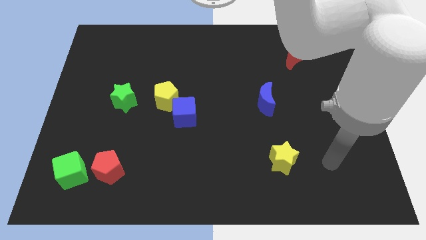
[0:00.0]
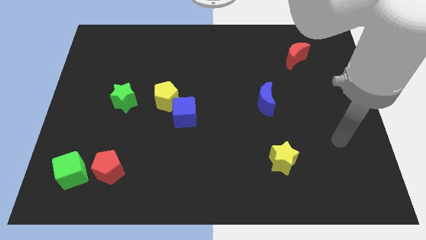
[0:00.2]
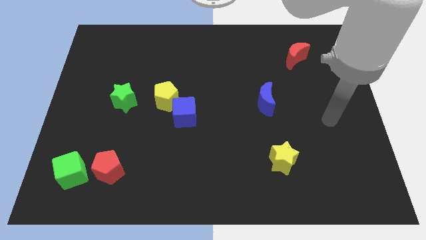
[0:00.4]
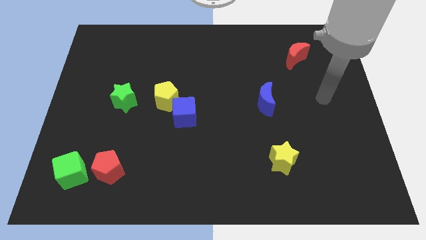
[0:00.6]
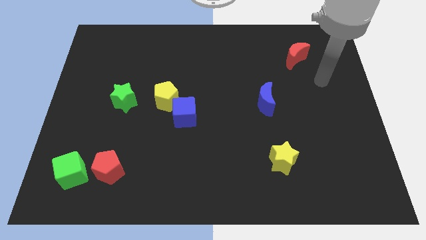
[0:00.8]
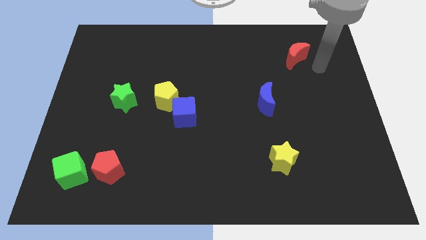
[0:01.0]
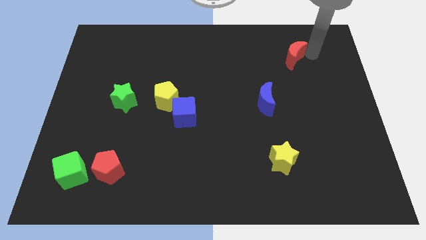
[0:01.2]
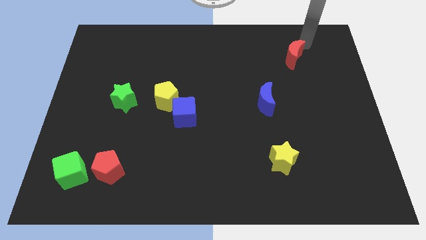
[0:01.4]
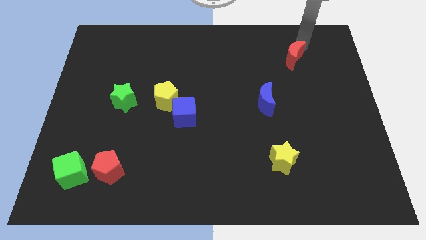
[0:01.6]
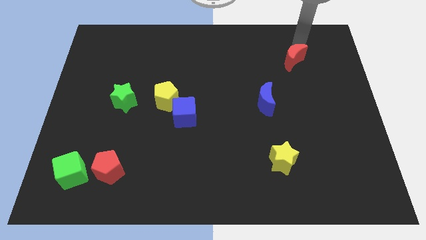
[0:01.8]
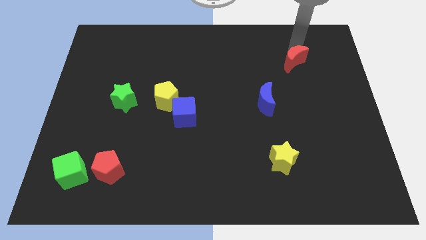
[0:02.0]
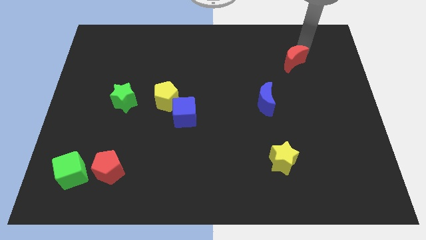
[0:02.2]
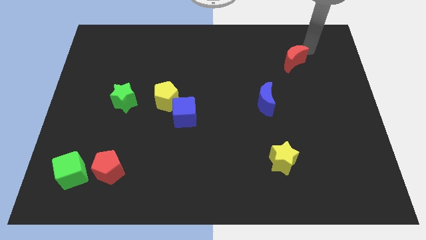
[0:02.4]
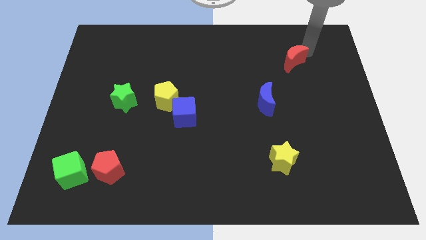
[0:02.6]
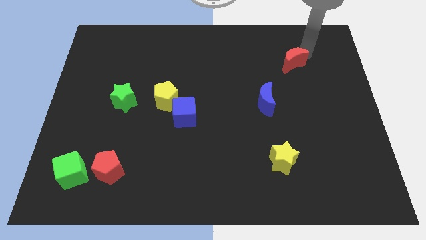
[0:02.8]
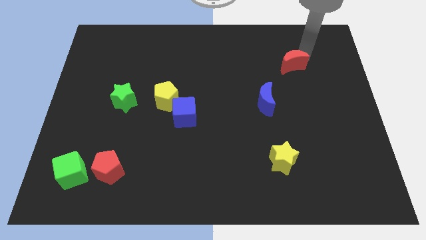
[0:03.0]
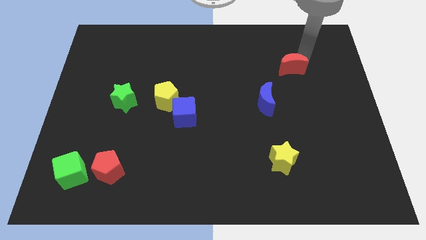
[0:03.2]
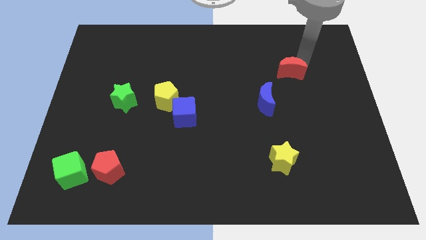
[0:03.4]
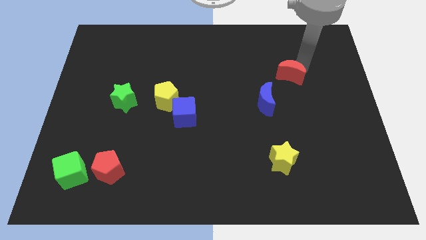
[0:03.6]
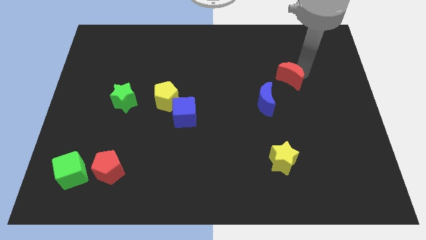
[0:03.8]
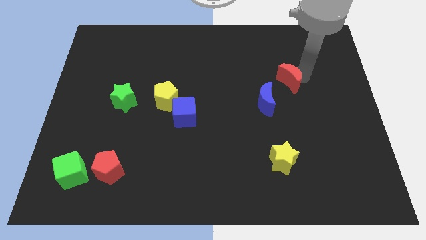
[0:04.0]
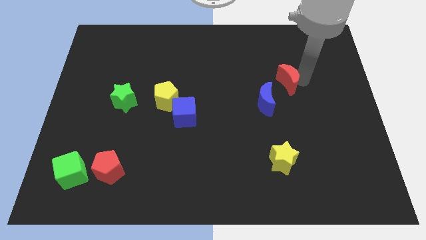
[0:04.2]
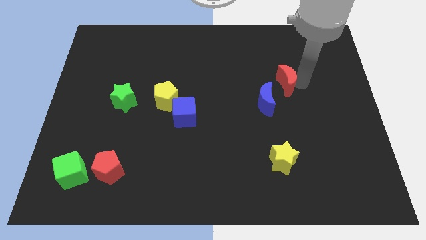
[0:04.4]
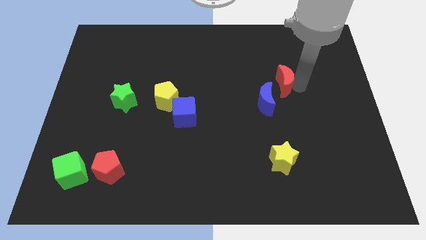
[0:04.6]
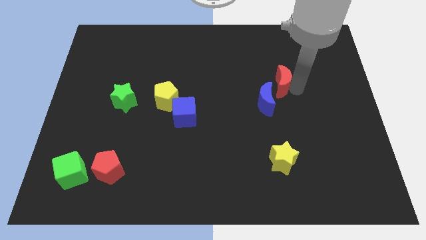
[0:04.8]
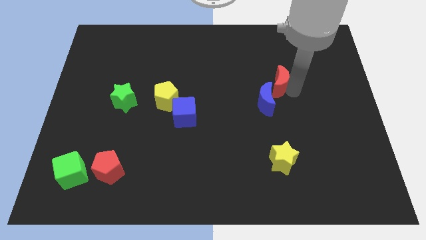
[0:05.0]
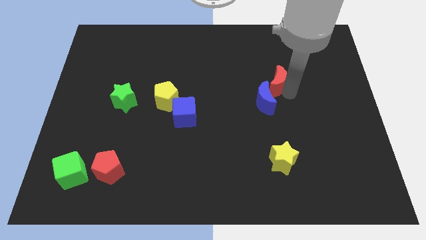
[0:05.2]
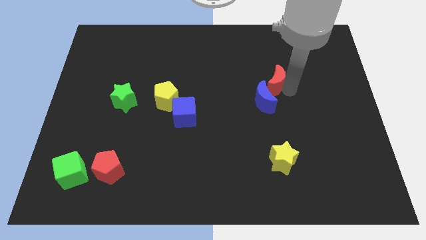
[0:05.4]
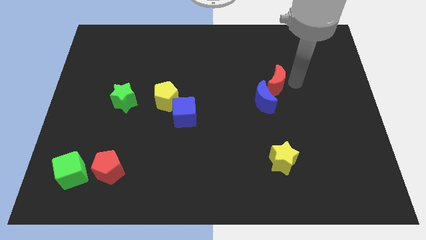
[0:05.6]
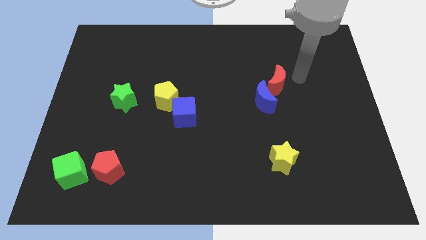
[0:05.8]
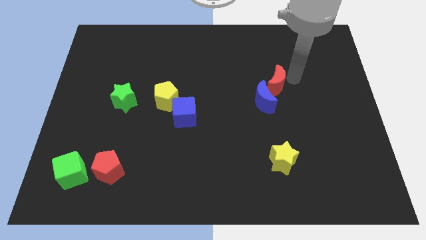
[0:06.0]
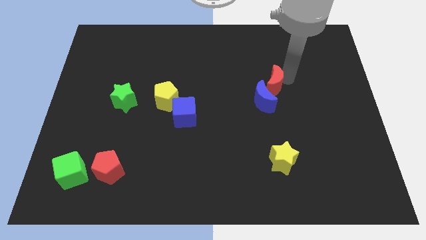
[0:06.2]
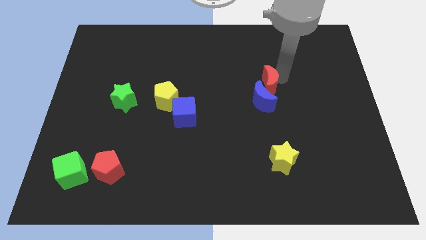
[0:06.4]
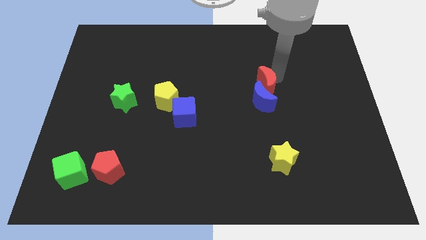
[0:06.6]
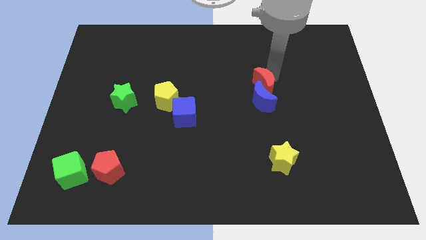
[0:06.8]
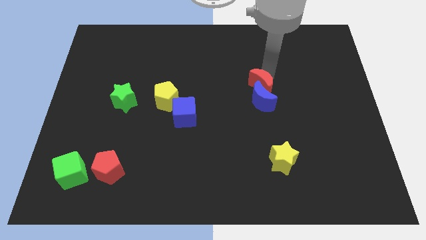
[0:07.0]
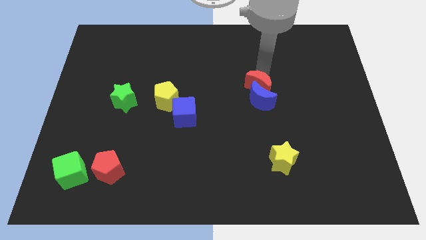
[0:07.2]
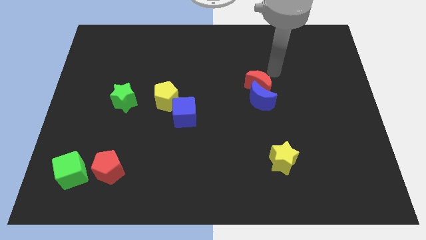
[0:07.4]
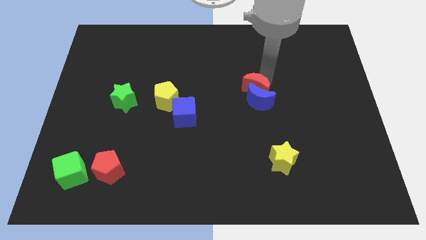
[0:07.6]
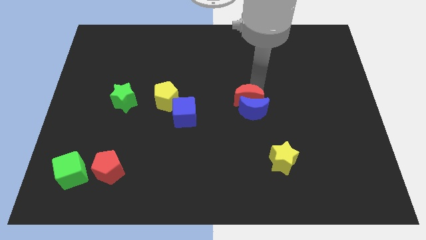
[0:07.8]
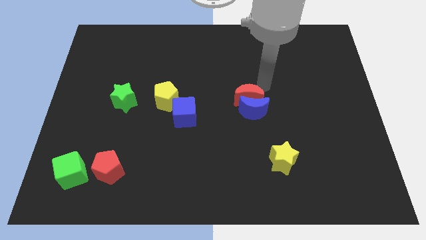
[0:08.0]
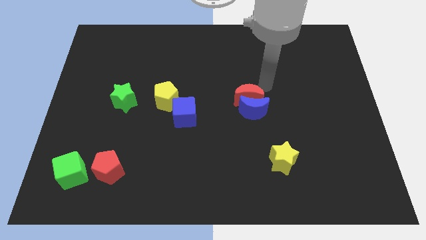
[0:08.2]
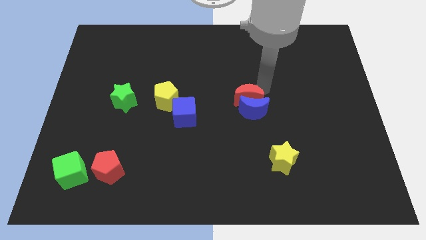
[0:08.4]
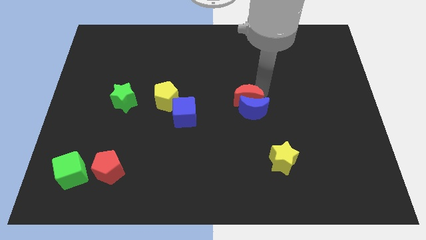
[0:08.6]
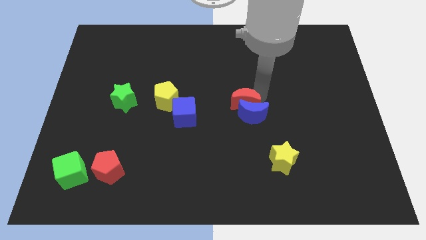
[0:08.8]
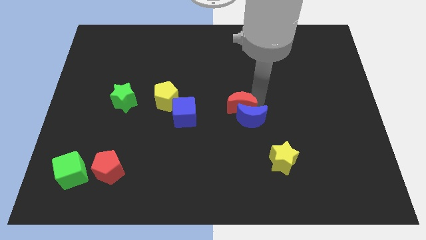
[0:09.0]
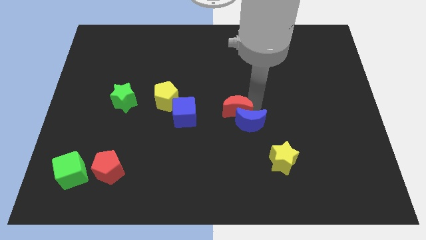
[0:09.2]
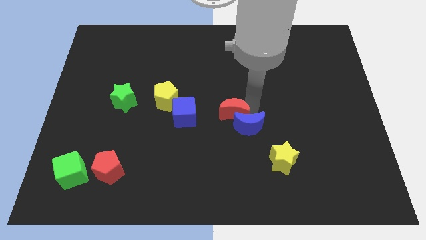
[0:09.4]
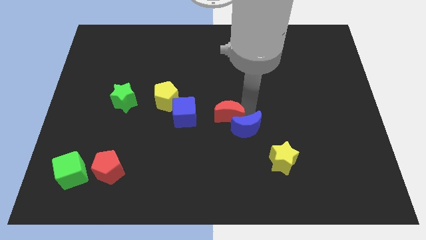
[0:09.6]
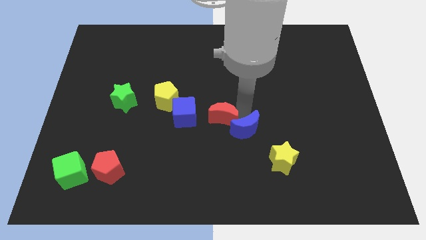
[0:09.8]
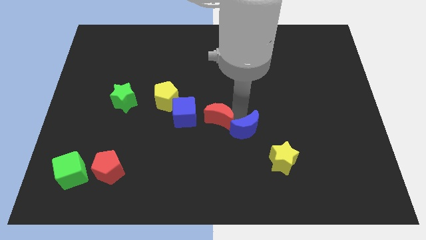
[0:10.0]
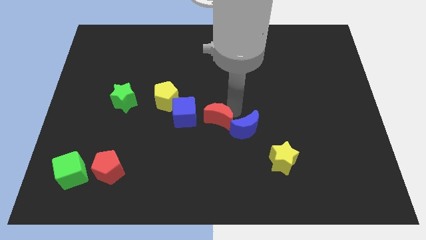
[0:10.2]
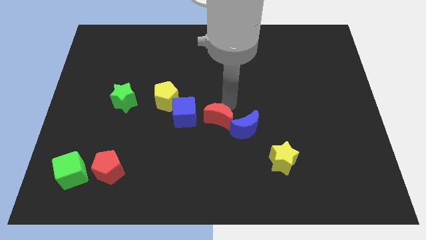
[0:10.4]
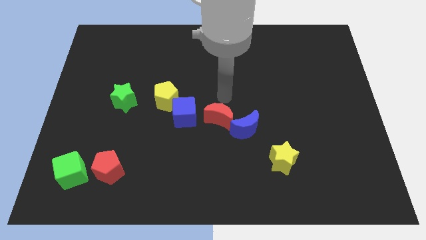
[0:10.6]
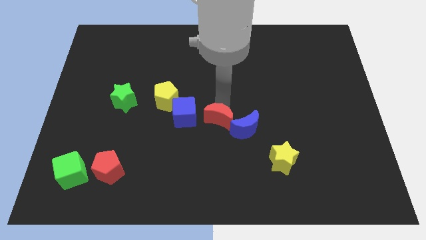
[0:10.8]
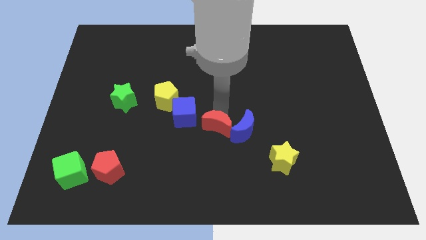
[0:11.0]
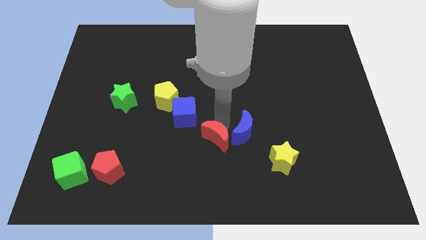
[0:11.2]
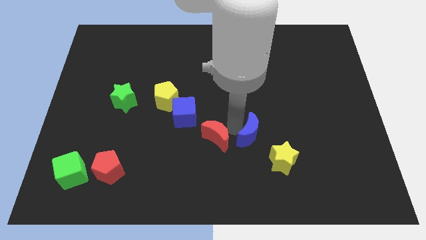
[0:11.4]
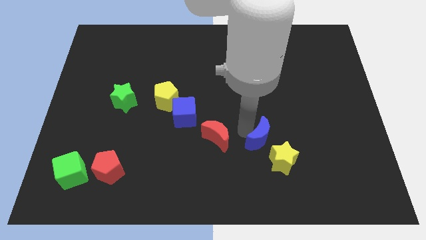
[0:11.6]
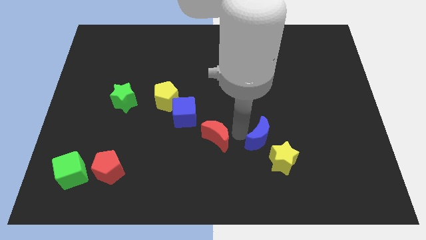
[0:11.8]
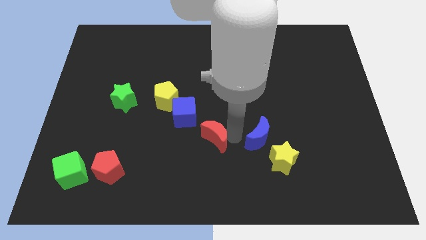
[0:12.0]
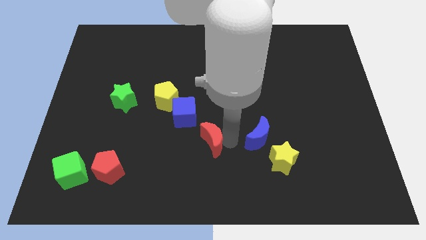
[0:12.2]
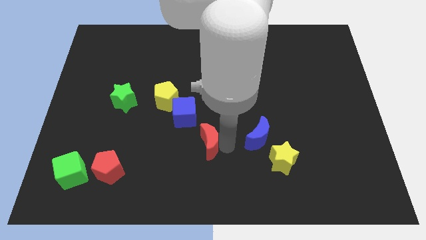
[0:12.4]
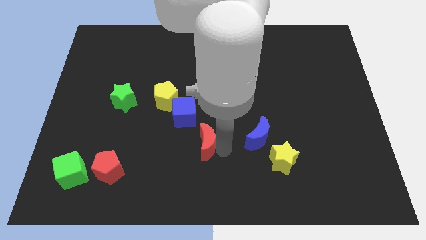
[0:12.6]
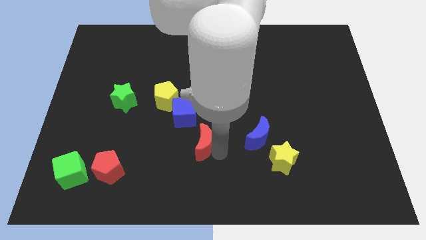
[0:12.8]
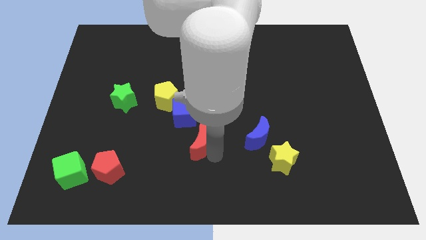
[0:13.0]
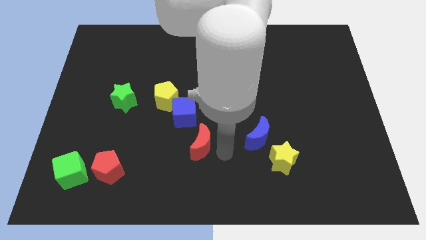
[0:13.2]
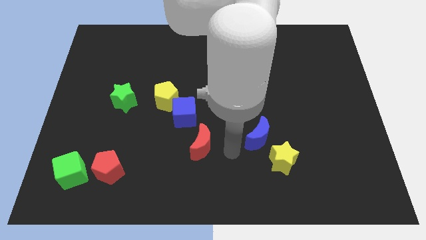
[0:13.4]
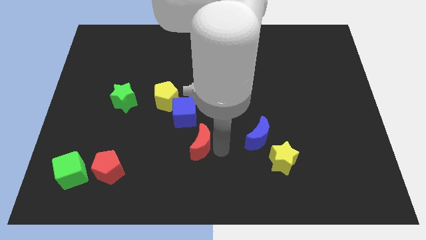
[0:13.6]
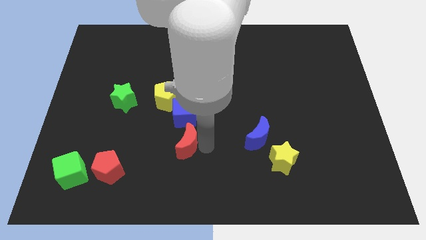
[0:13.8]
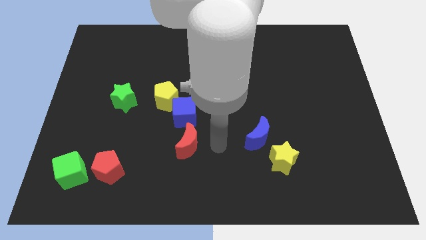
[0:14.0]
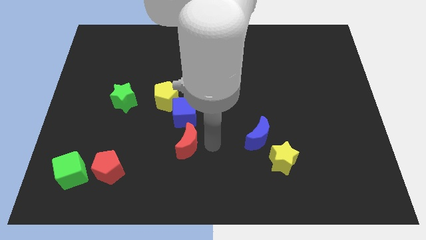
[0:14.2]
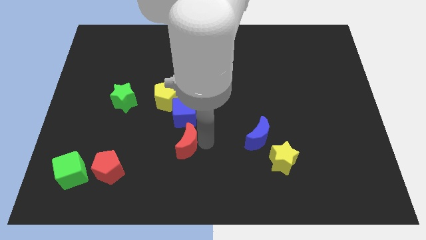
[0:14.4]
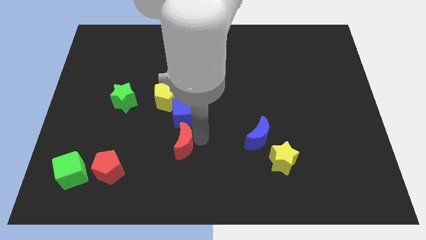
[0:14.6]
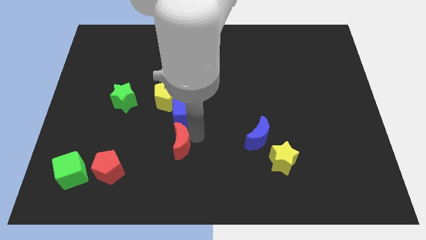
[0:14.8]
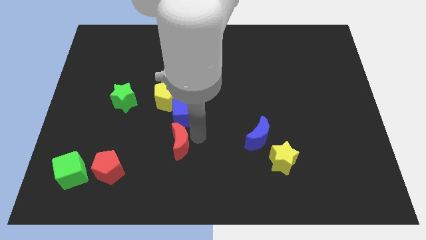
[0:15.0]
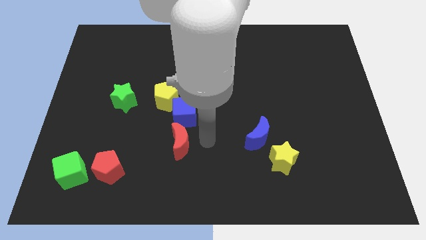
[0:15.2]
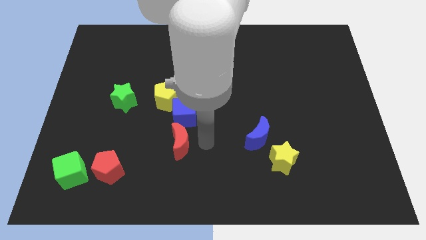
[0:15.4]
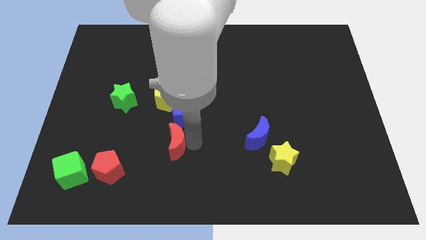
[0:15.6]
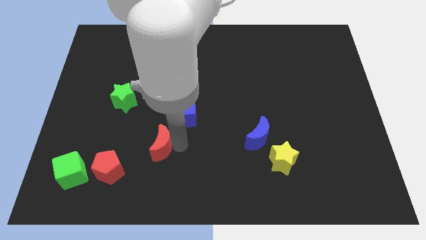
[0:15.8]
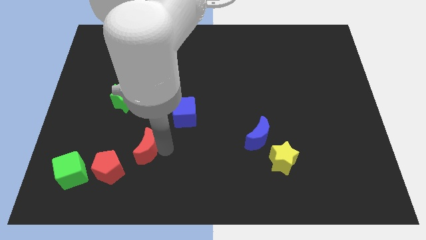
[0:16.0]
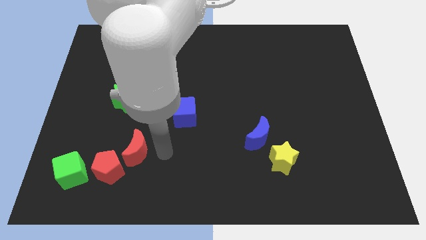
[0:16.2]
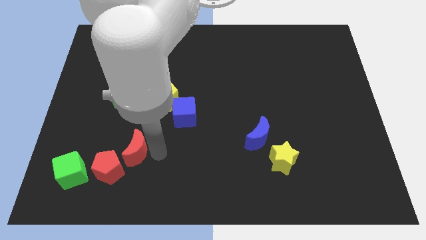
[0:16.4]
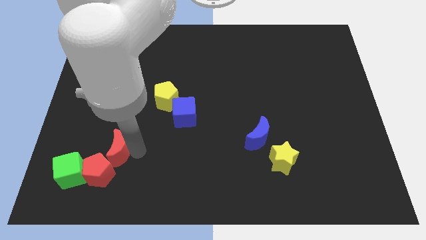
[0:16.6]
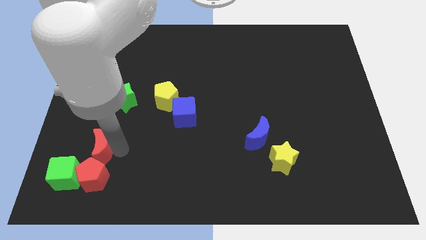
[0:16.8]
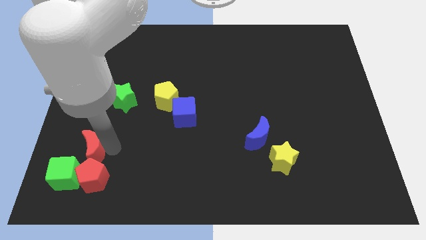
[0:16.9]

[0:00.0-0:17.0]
slide the red moon to the top left of the red pentagon
